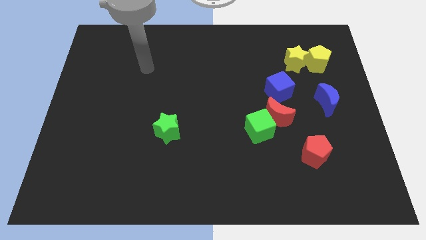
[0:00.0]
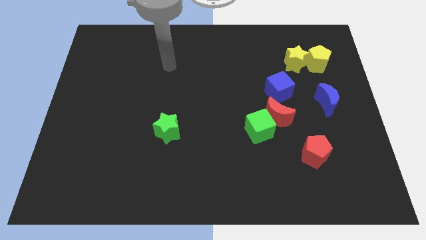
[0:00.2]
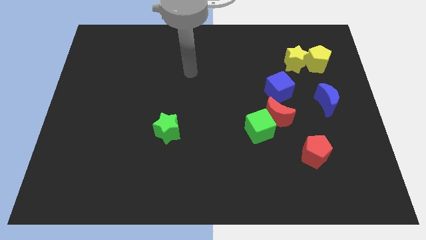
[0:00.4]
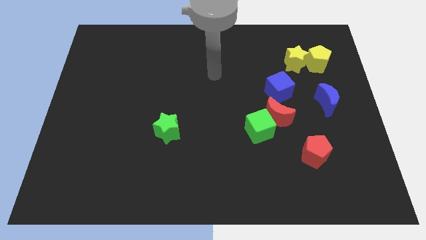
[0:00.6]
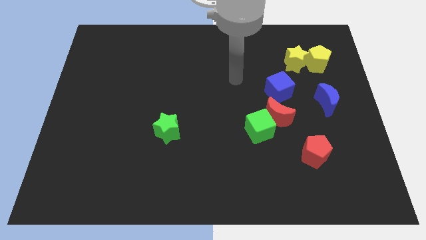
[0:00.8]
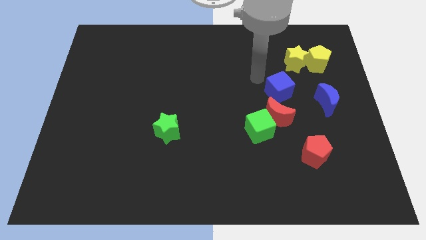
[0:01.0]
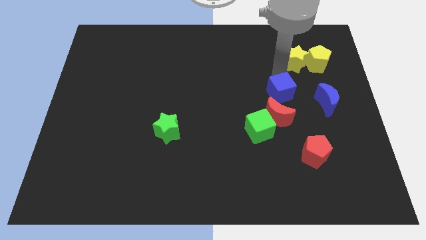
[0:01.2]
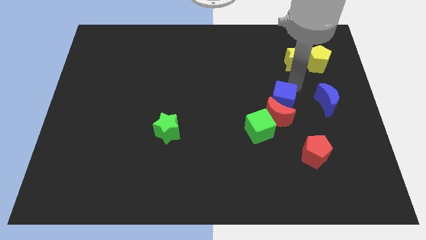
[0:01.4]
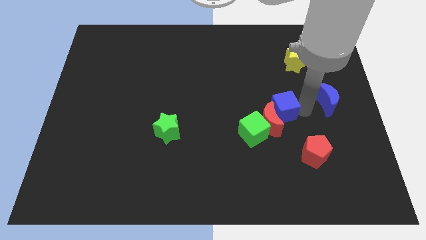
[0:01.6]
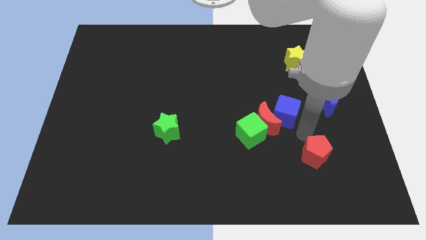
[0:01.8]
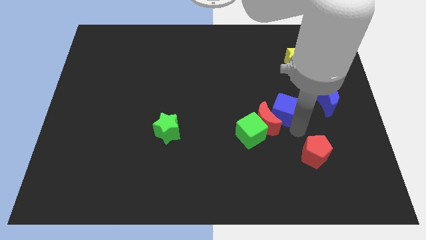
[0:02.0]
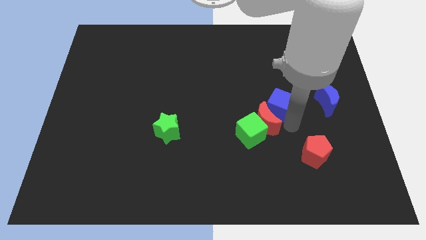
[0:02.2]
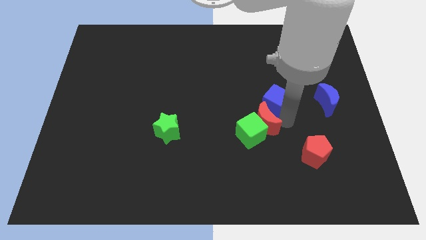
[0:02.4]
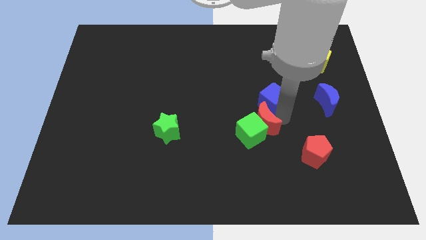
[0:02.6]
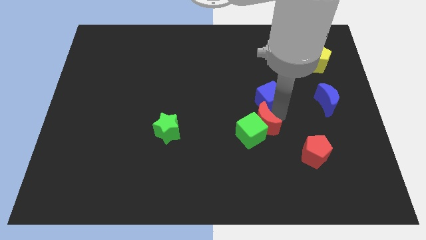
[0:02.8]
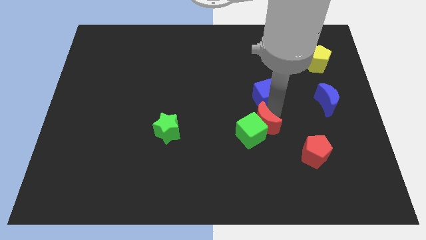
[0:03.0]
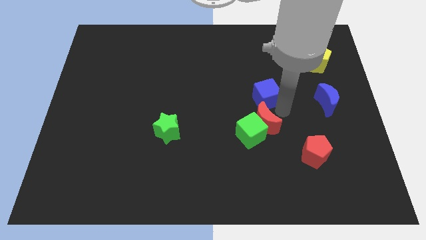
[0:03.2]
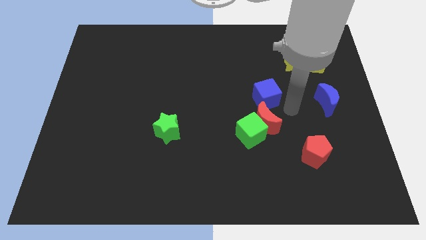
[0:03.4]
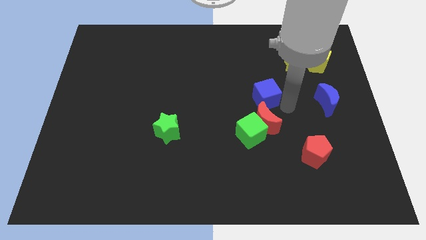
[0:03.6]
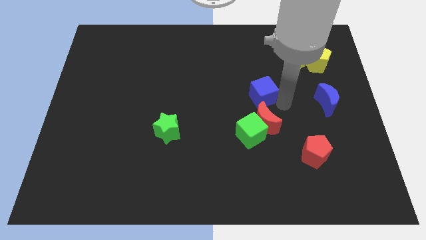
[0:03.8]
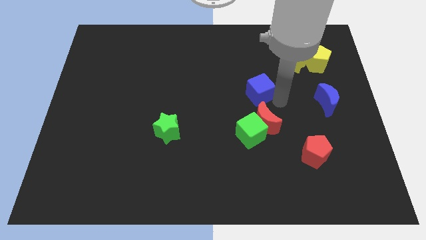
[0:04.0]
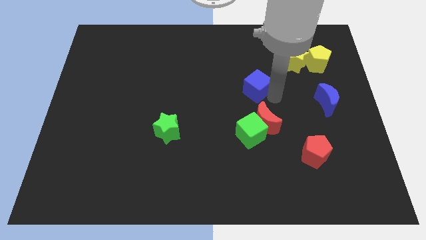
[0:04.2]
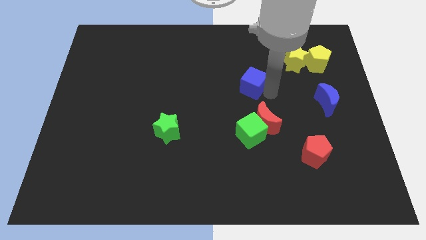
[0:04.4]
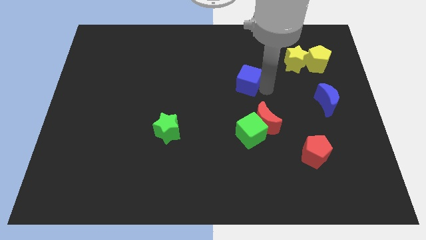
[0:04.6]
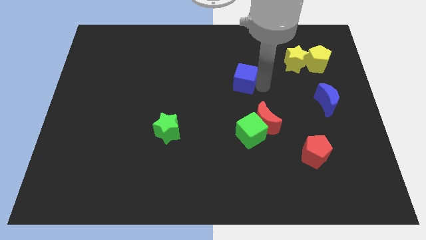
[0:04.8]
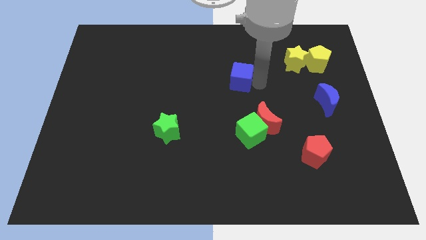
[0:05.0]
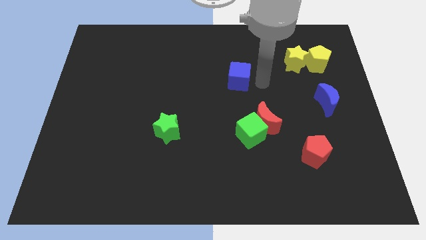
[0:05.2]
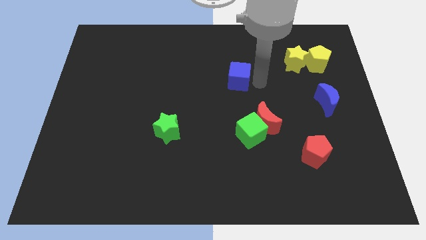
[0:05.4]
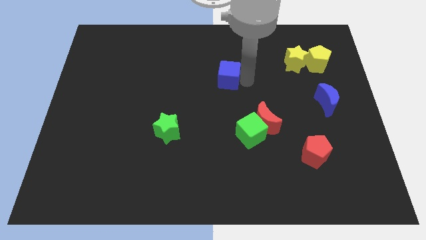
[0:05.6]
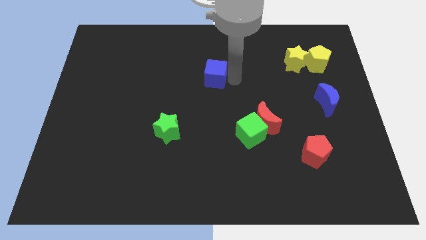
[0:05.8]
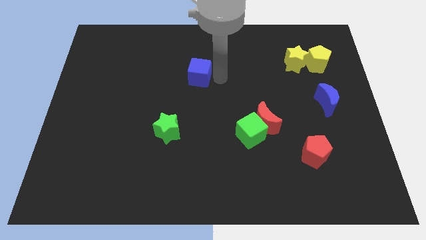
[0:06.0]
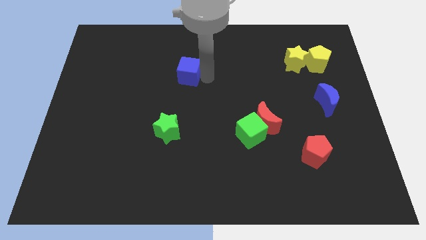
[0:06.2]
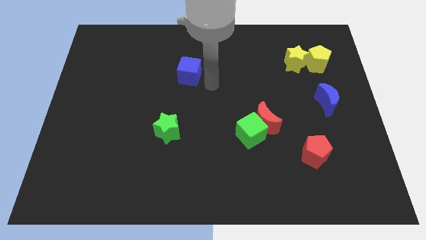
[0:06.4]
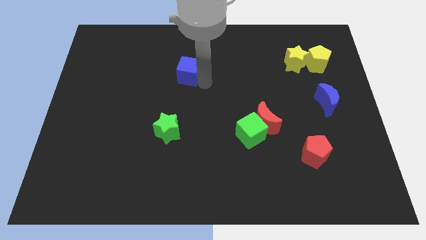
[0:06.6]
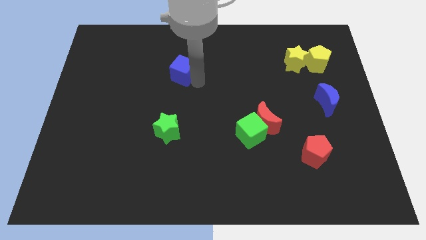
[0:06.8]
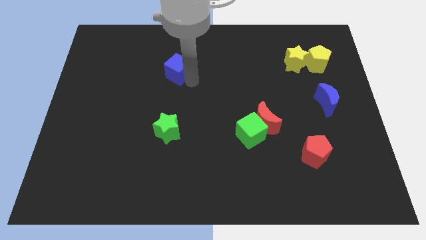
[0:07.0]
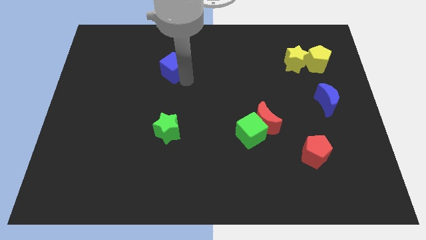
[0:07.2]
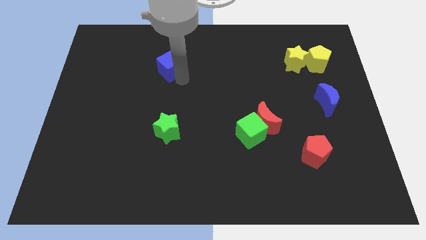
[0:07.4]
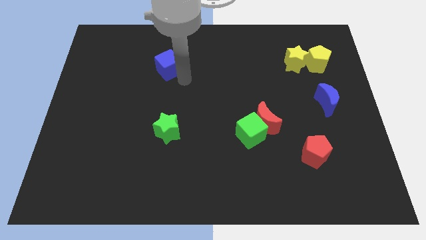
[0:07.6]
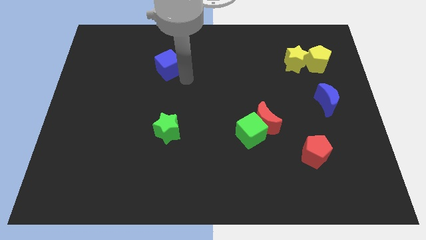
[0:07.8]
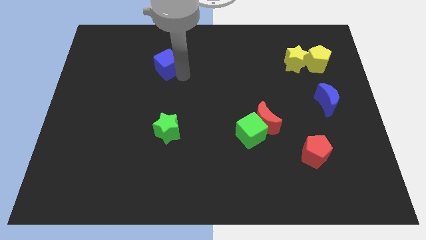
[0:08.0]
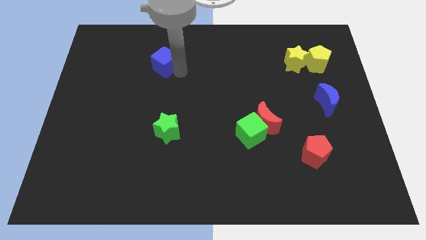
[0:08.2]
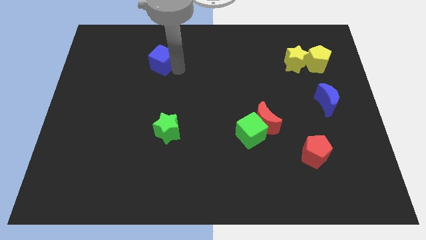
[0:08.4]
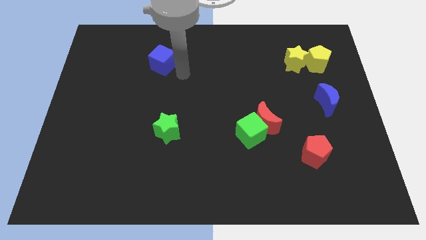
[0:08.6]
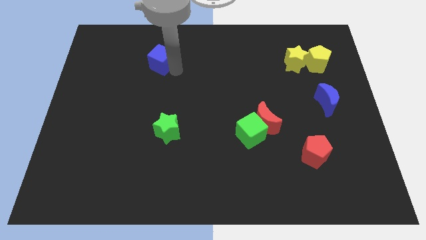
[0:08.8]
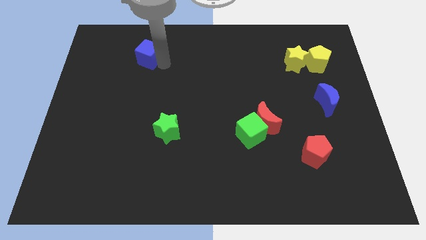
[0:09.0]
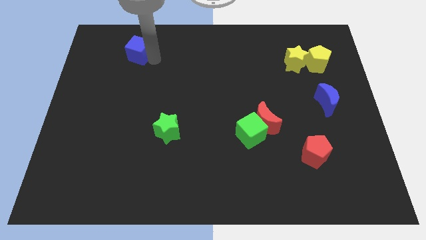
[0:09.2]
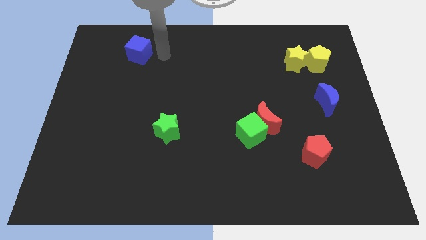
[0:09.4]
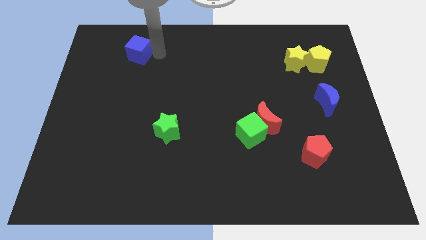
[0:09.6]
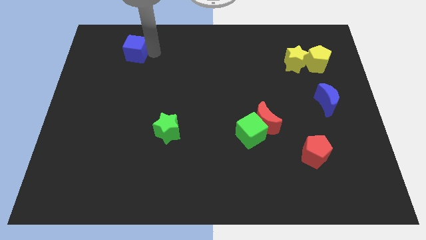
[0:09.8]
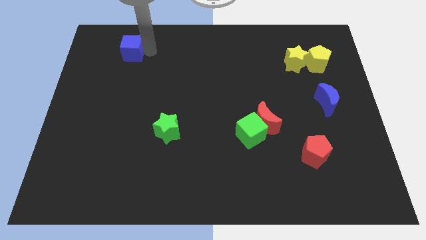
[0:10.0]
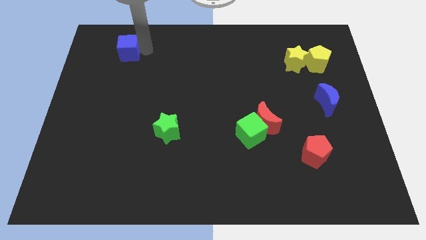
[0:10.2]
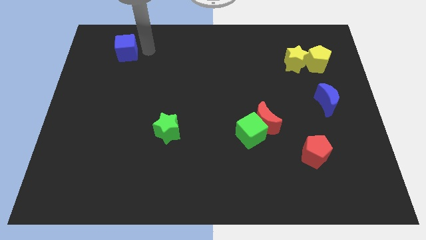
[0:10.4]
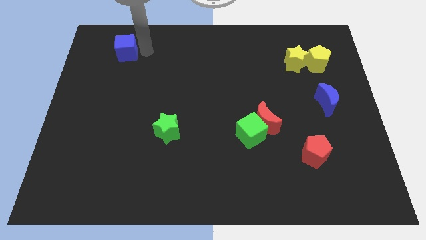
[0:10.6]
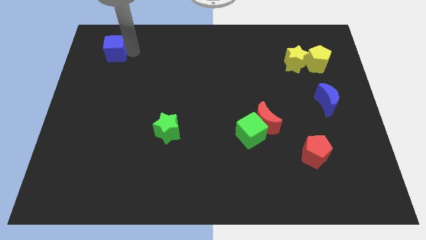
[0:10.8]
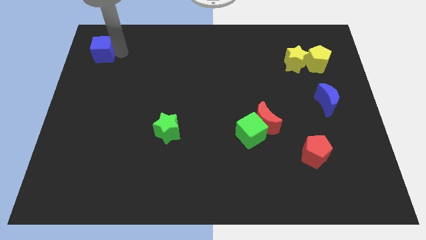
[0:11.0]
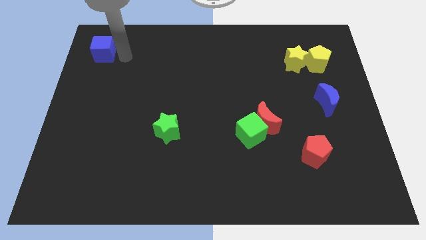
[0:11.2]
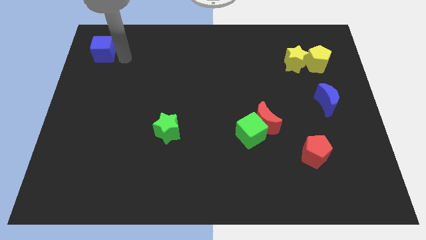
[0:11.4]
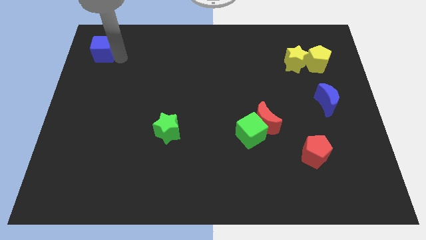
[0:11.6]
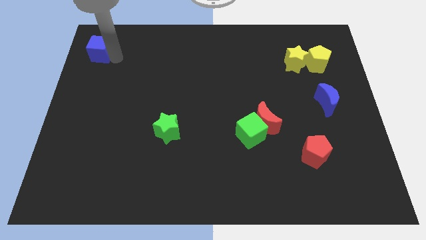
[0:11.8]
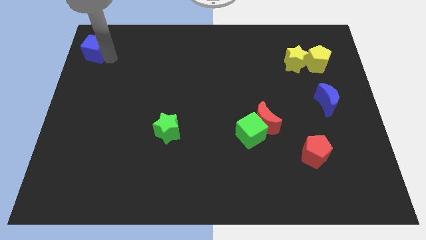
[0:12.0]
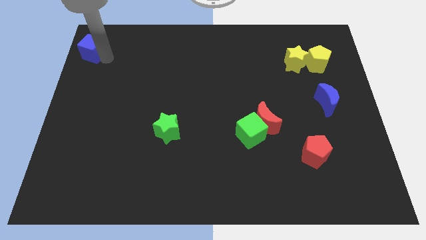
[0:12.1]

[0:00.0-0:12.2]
slide the blue cube to the top left

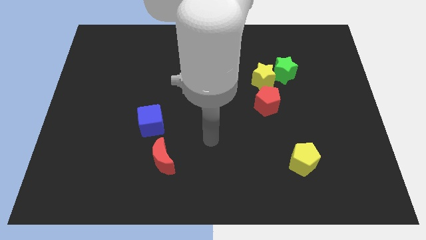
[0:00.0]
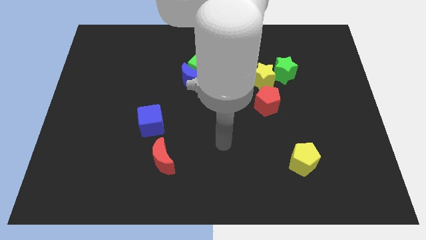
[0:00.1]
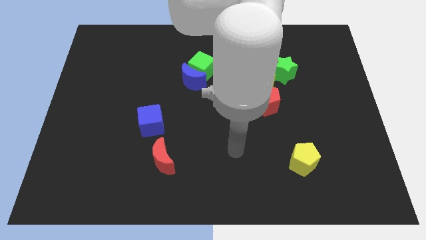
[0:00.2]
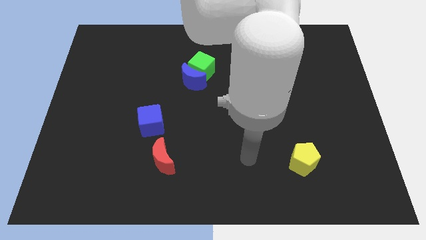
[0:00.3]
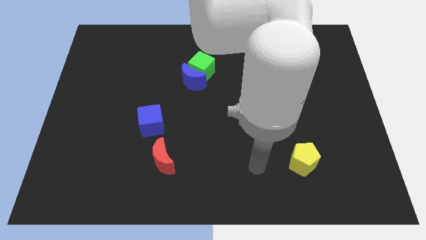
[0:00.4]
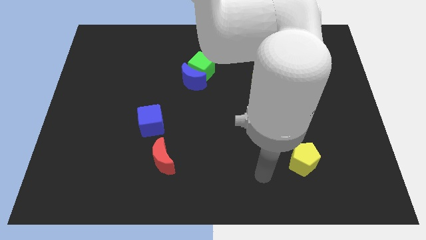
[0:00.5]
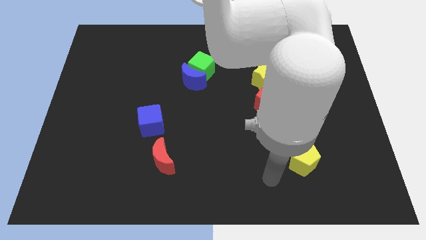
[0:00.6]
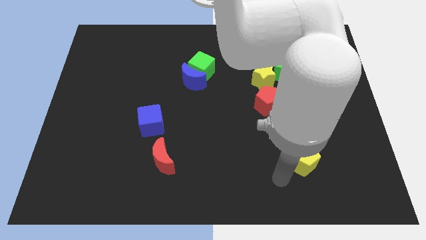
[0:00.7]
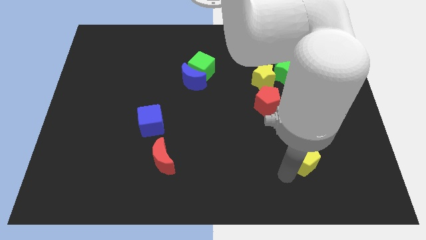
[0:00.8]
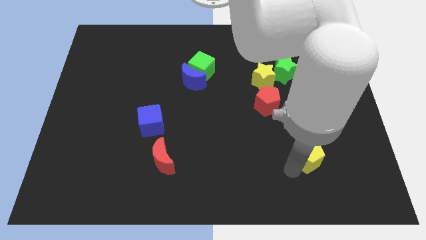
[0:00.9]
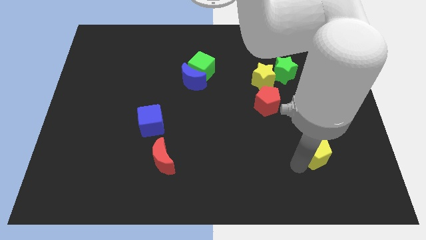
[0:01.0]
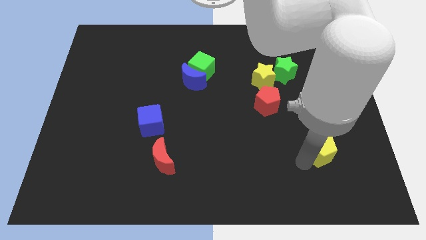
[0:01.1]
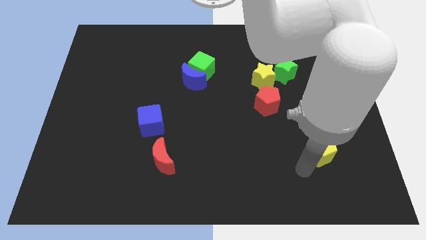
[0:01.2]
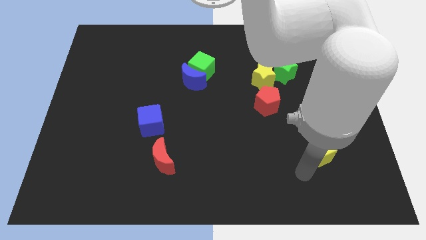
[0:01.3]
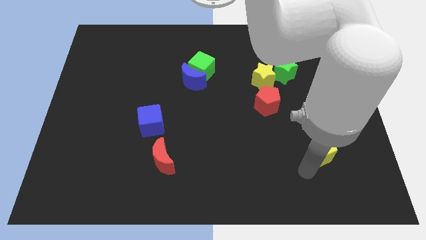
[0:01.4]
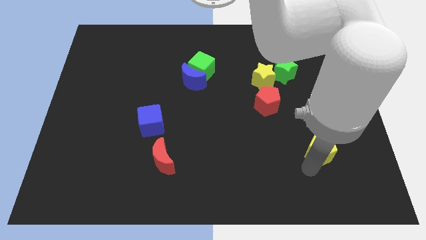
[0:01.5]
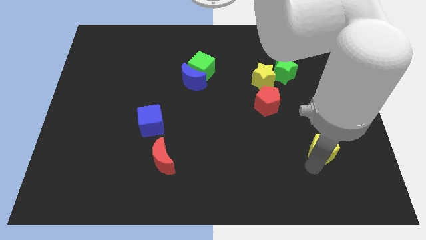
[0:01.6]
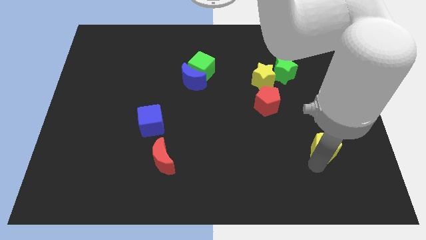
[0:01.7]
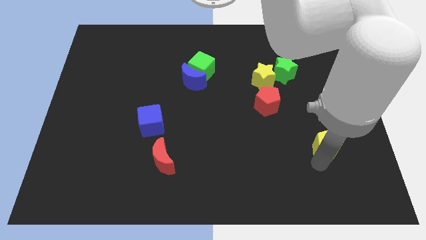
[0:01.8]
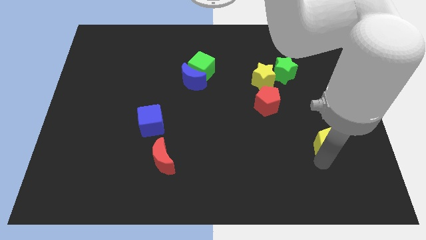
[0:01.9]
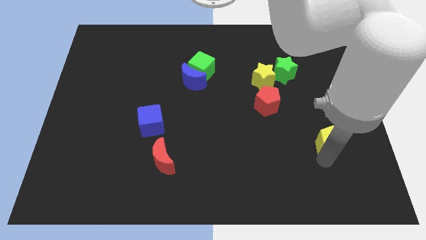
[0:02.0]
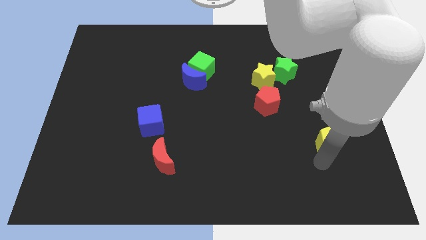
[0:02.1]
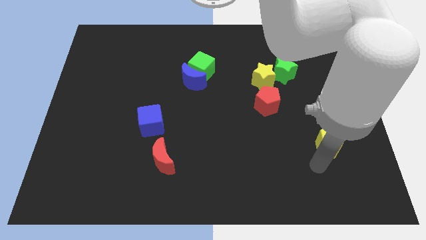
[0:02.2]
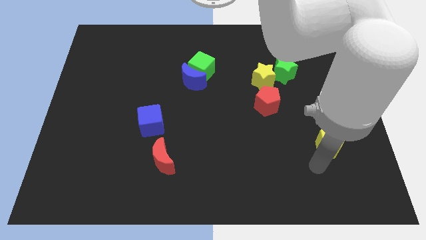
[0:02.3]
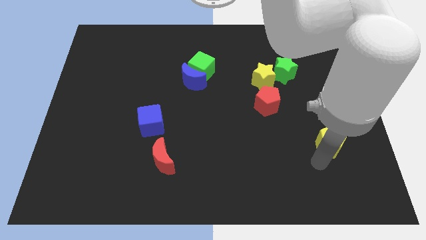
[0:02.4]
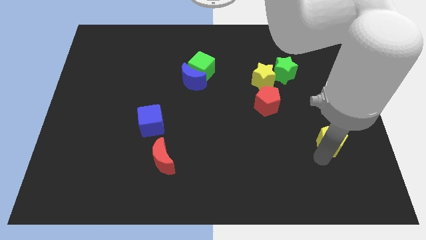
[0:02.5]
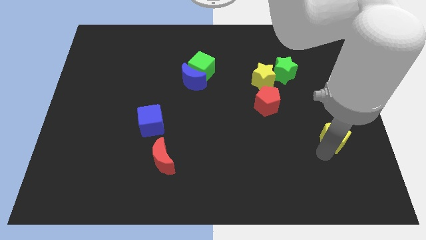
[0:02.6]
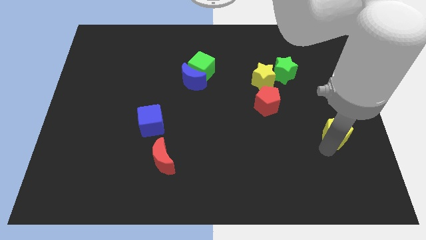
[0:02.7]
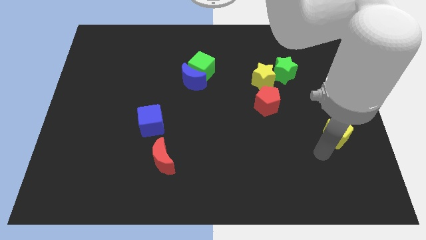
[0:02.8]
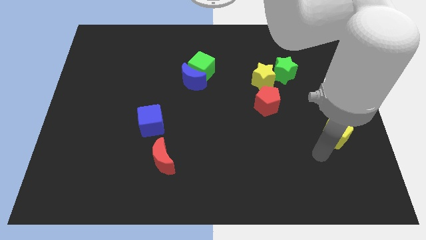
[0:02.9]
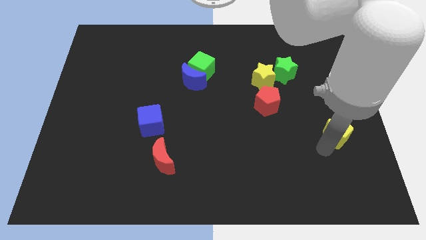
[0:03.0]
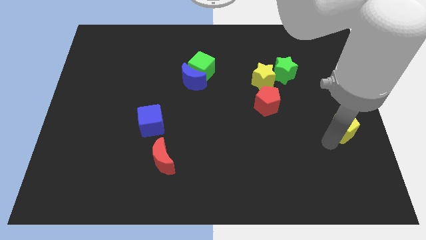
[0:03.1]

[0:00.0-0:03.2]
put the yellow pentagon to the right side of the board
